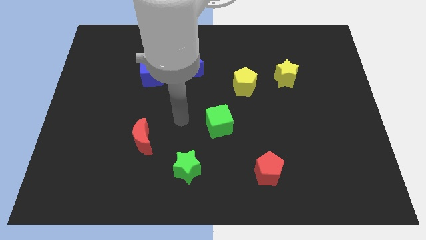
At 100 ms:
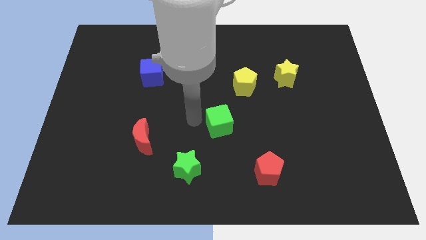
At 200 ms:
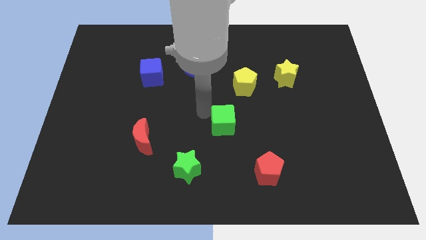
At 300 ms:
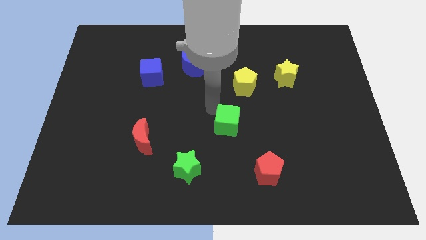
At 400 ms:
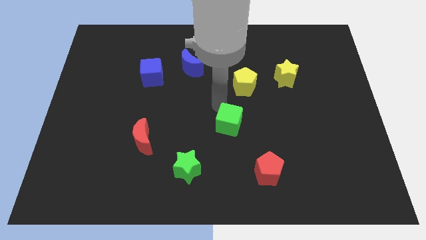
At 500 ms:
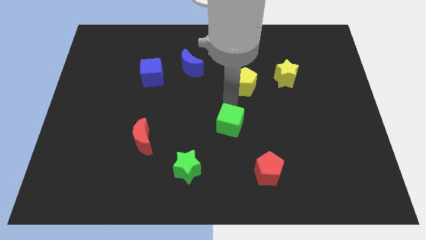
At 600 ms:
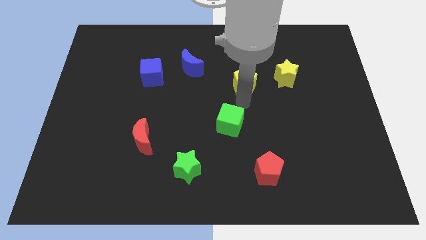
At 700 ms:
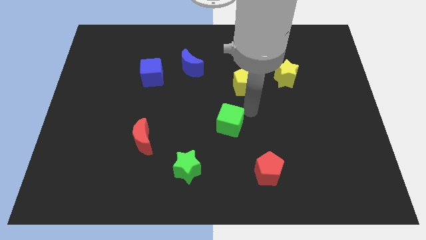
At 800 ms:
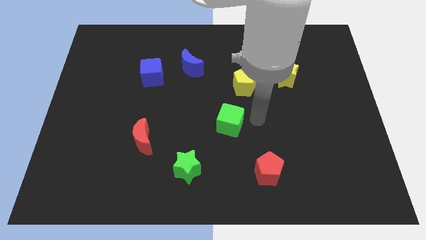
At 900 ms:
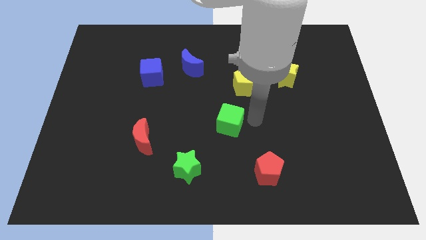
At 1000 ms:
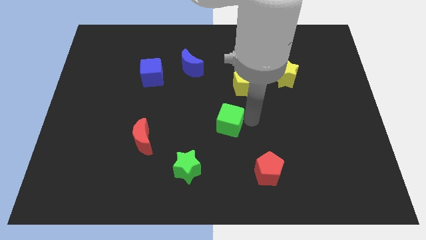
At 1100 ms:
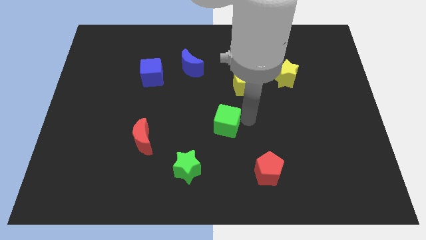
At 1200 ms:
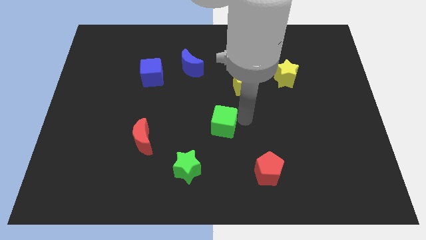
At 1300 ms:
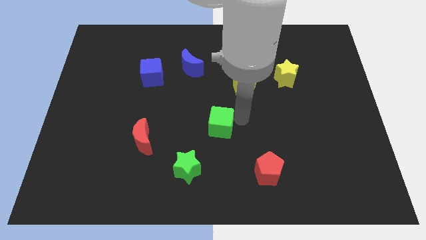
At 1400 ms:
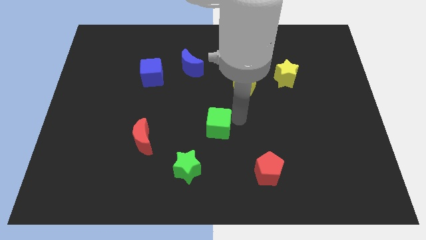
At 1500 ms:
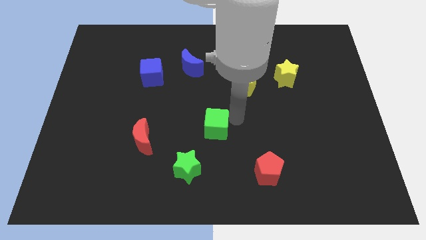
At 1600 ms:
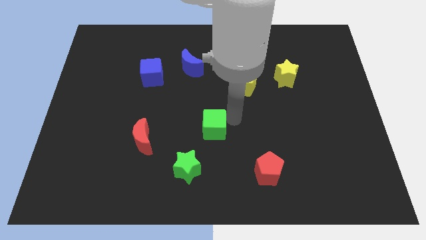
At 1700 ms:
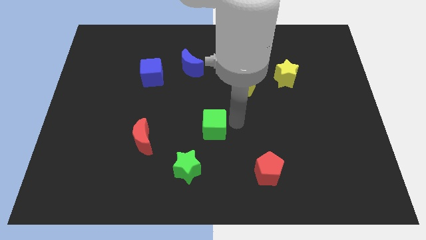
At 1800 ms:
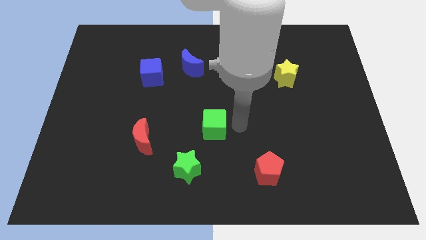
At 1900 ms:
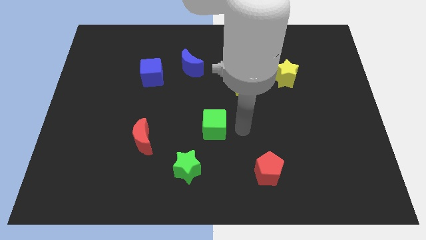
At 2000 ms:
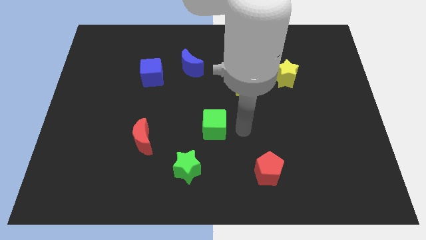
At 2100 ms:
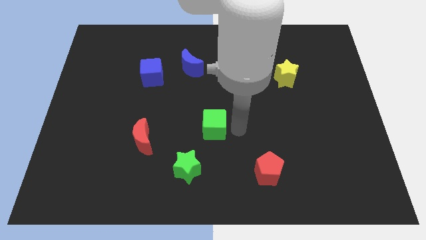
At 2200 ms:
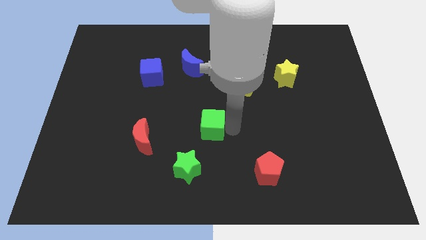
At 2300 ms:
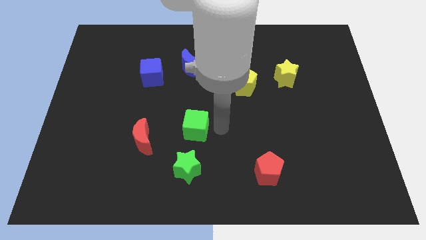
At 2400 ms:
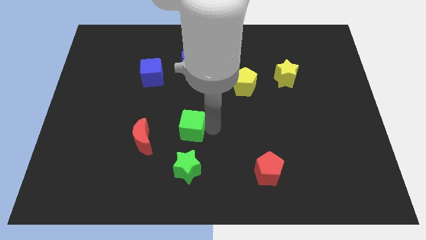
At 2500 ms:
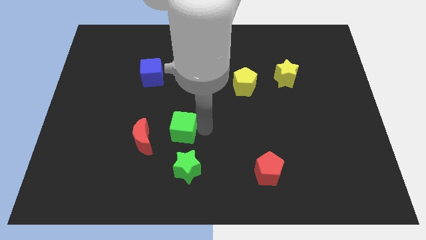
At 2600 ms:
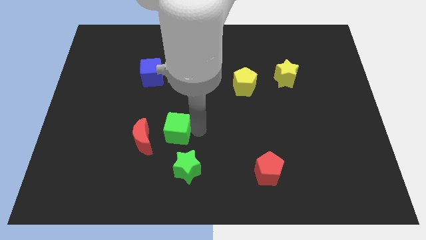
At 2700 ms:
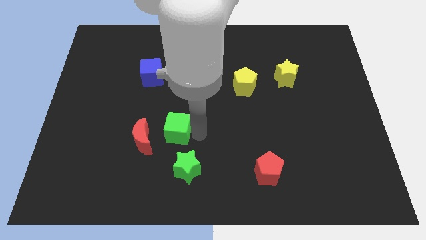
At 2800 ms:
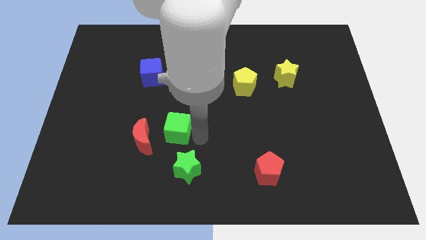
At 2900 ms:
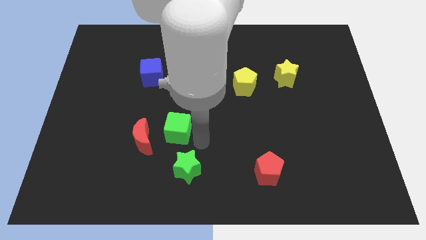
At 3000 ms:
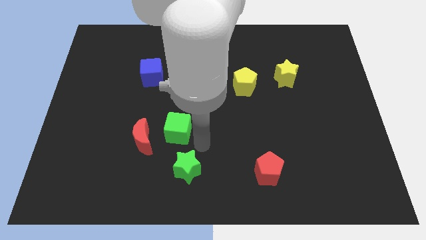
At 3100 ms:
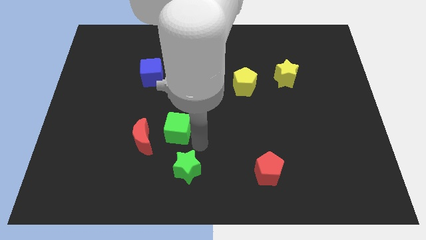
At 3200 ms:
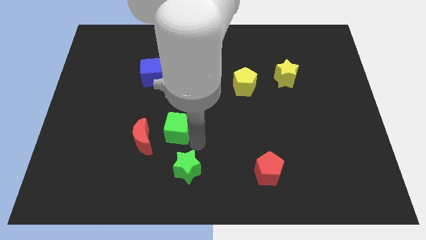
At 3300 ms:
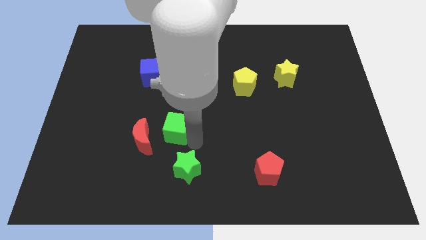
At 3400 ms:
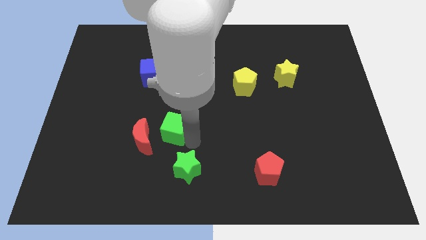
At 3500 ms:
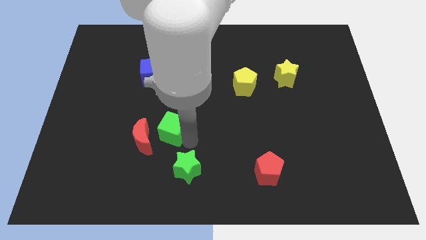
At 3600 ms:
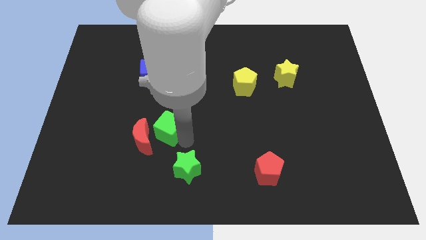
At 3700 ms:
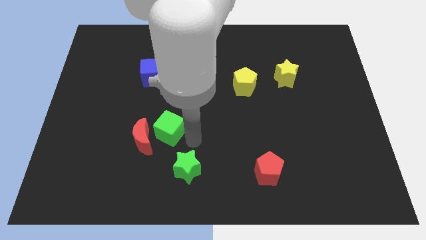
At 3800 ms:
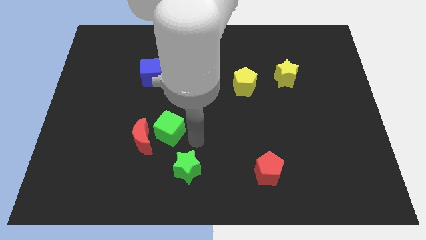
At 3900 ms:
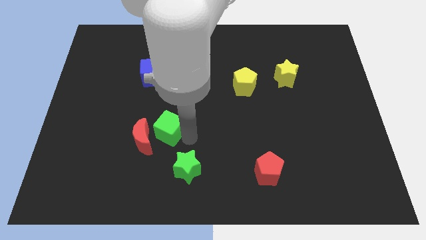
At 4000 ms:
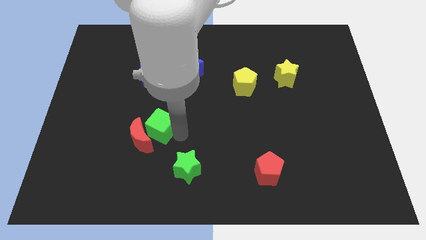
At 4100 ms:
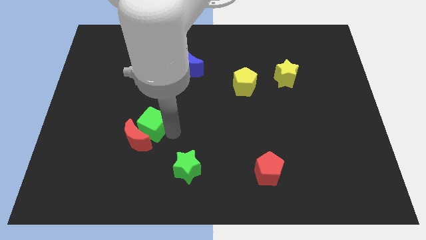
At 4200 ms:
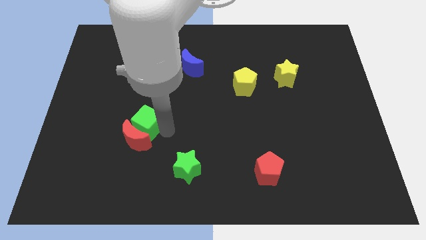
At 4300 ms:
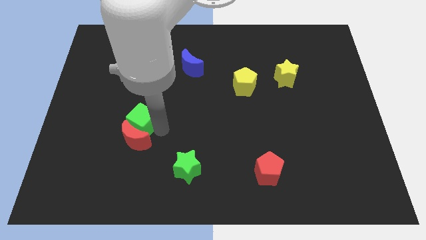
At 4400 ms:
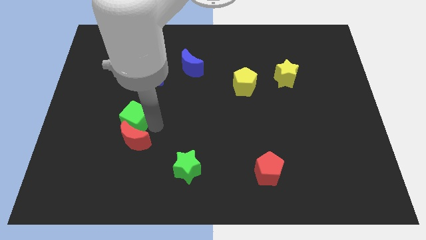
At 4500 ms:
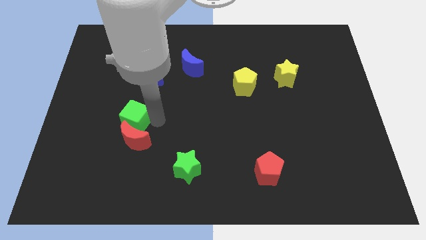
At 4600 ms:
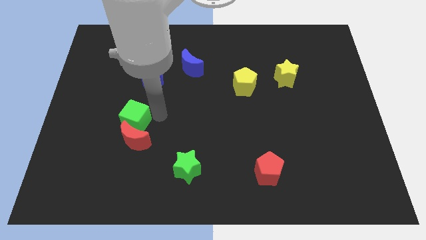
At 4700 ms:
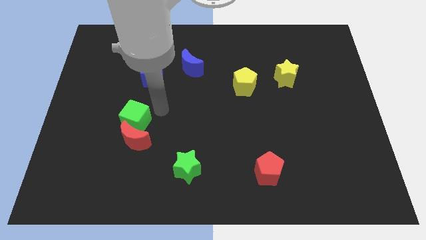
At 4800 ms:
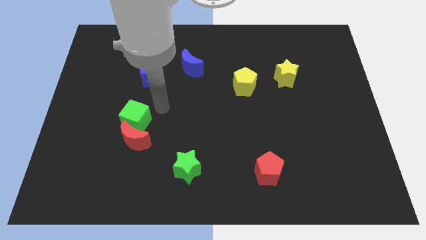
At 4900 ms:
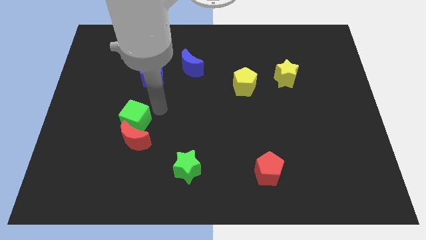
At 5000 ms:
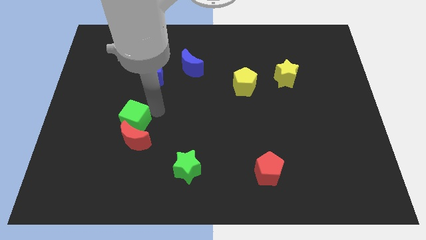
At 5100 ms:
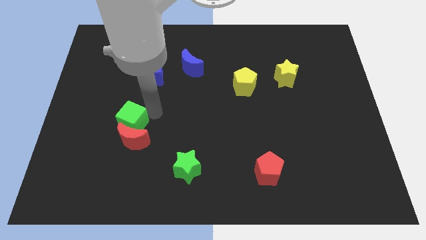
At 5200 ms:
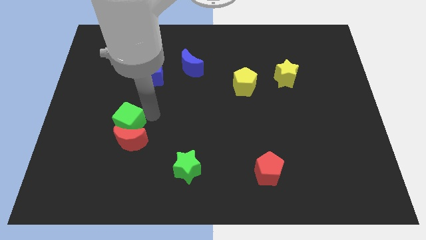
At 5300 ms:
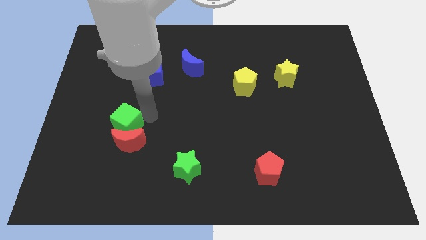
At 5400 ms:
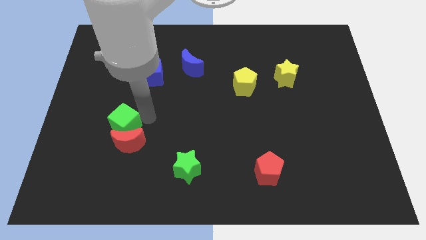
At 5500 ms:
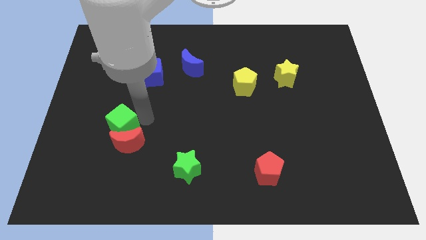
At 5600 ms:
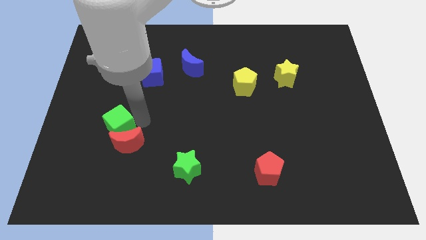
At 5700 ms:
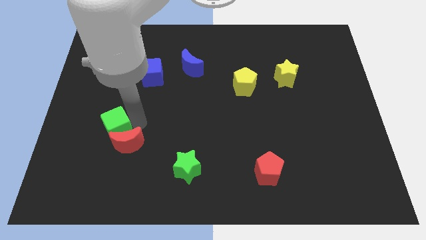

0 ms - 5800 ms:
put the green cube to the left side of the red moon

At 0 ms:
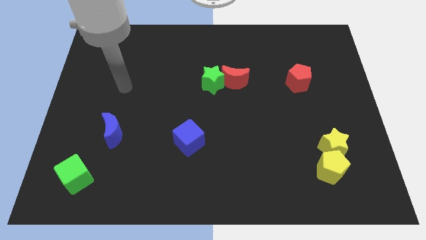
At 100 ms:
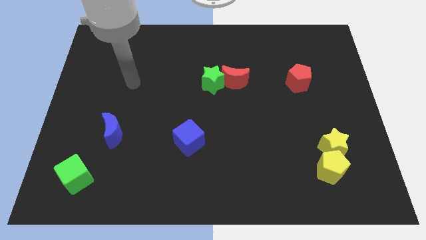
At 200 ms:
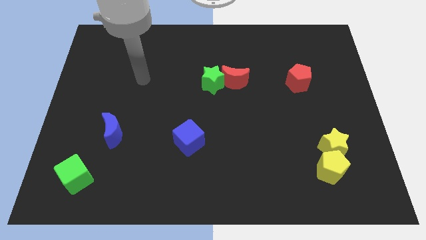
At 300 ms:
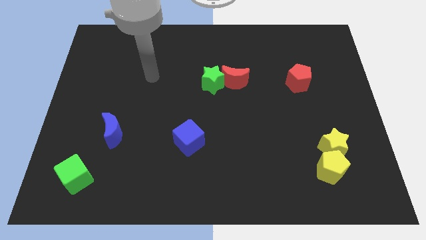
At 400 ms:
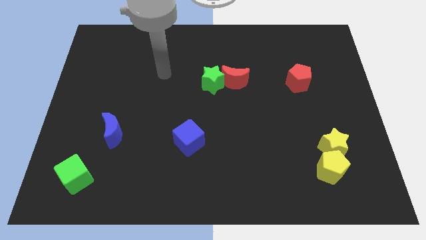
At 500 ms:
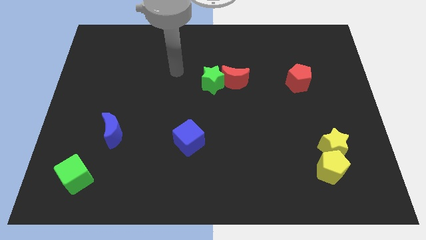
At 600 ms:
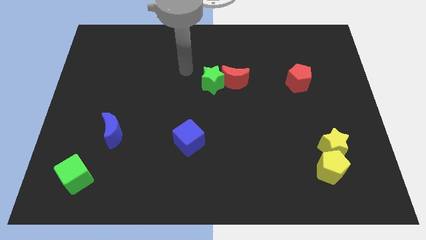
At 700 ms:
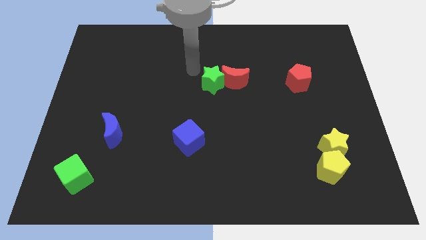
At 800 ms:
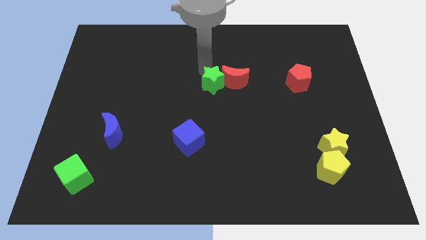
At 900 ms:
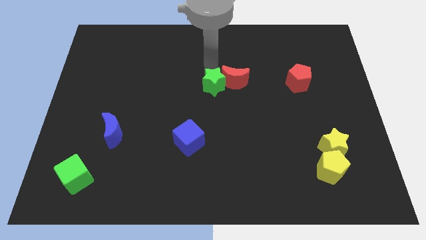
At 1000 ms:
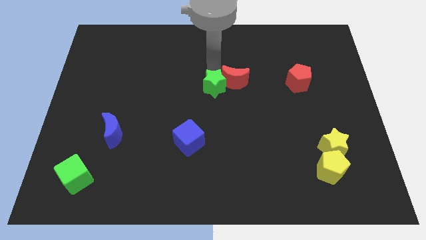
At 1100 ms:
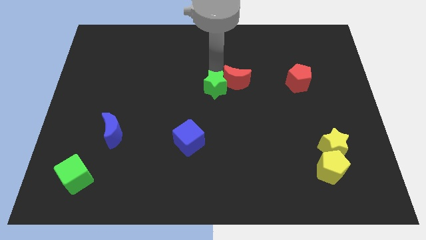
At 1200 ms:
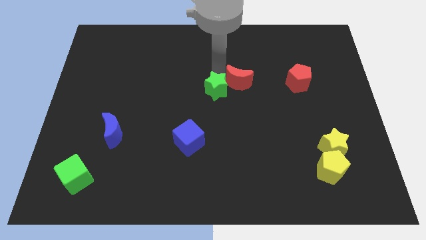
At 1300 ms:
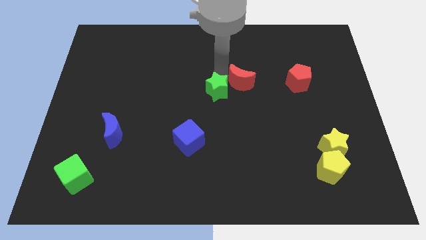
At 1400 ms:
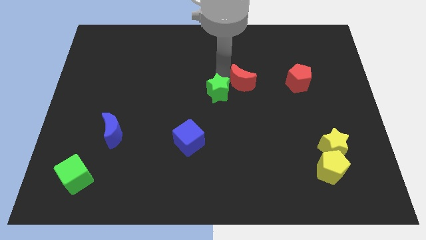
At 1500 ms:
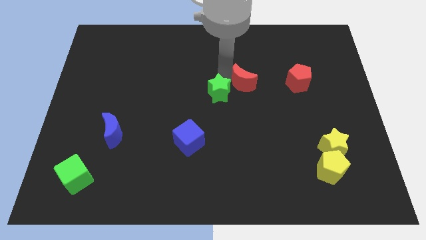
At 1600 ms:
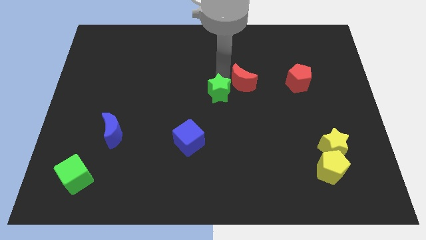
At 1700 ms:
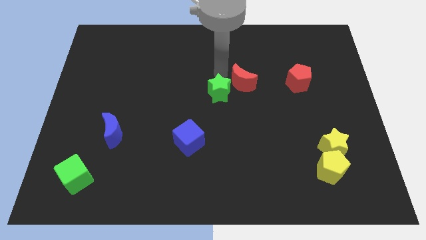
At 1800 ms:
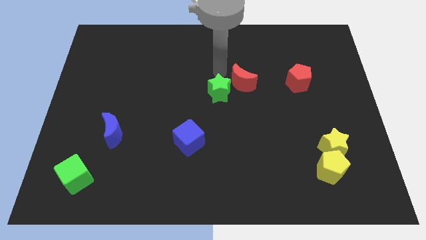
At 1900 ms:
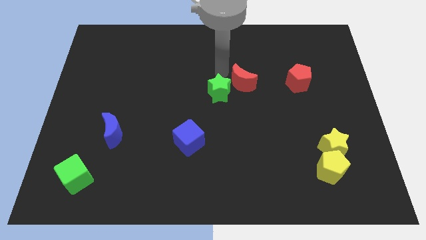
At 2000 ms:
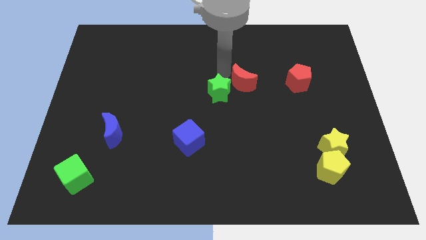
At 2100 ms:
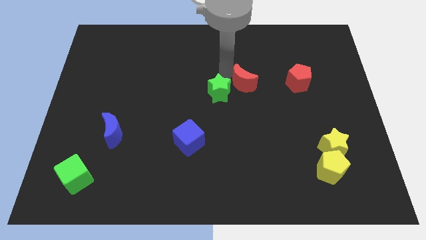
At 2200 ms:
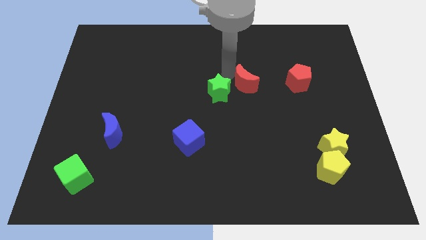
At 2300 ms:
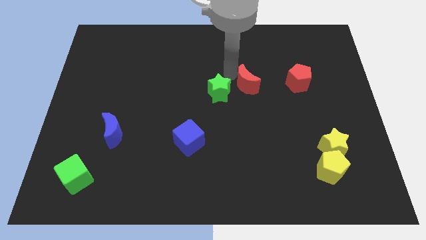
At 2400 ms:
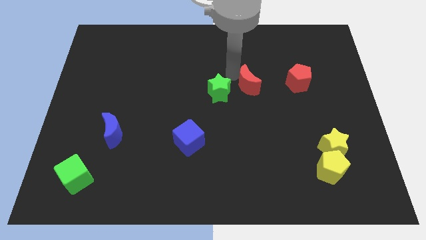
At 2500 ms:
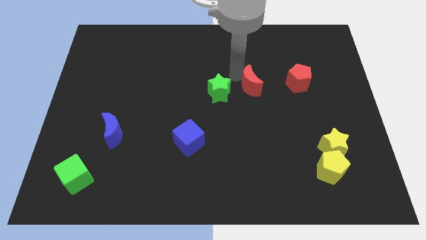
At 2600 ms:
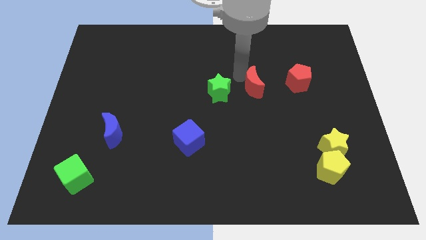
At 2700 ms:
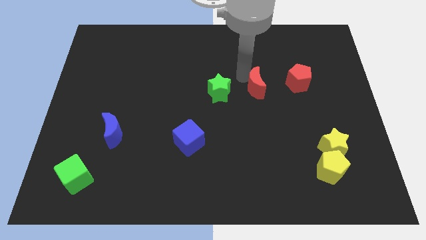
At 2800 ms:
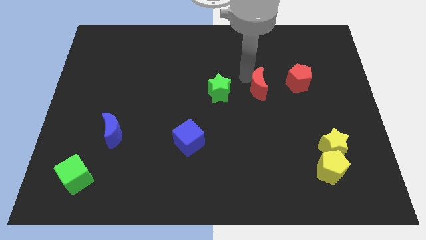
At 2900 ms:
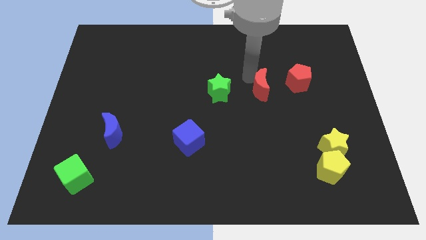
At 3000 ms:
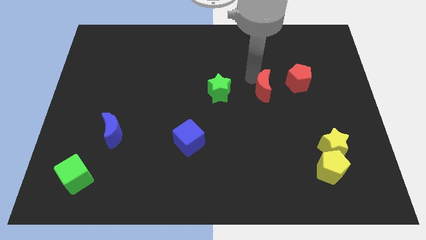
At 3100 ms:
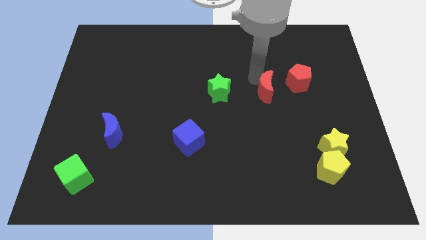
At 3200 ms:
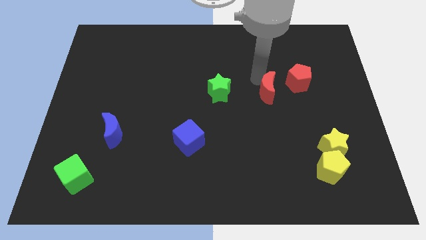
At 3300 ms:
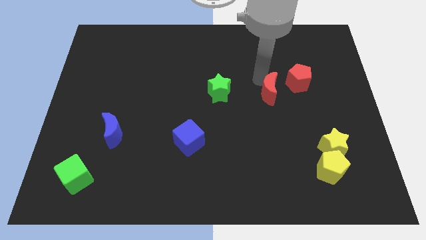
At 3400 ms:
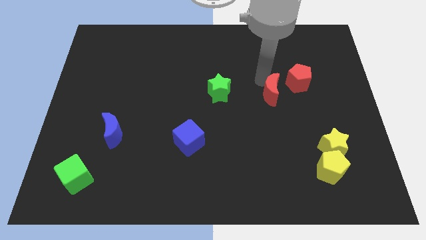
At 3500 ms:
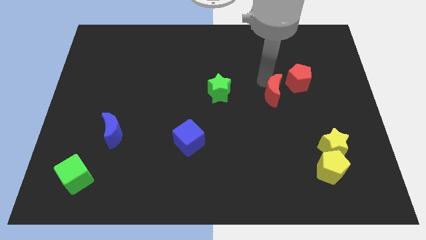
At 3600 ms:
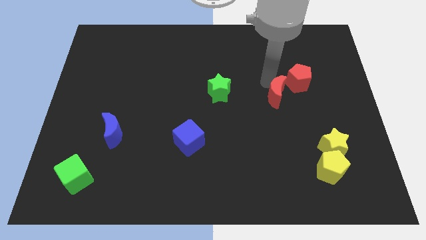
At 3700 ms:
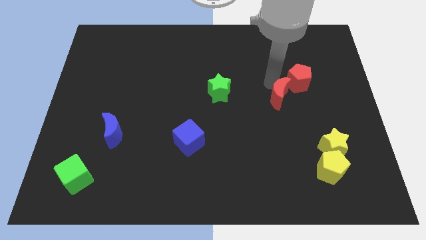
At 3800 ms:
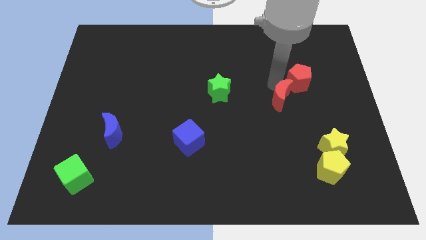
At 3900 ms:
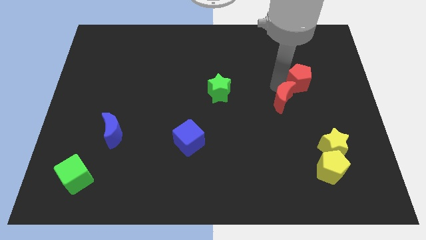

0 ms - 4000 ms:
slide the red moon to the bottom side of the red pentagon
